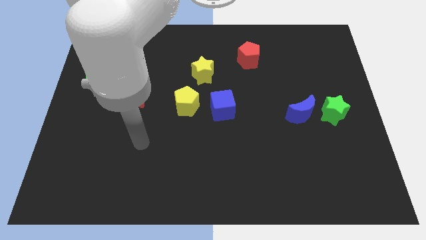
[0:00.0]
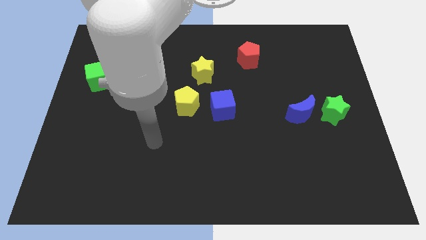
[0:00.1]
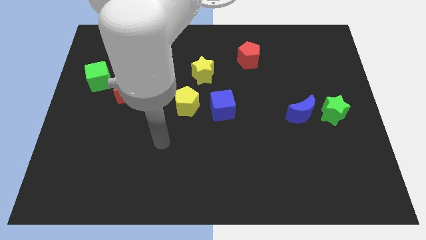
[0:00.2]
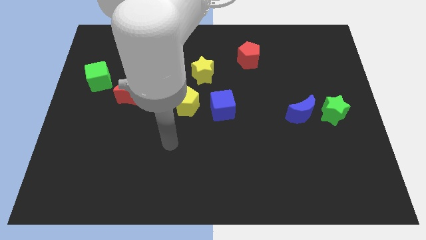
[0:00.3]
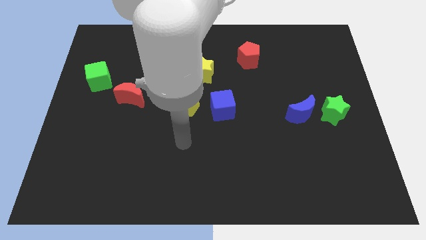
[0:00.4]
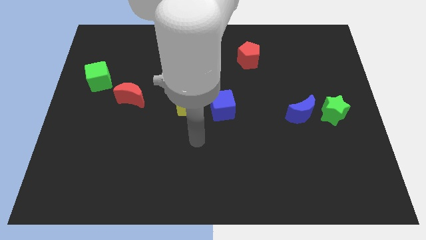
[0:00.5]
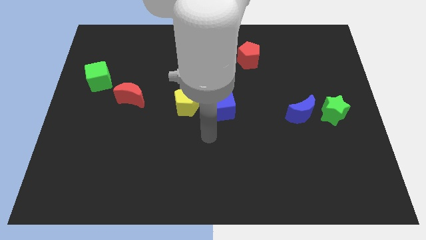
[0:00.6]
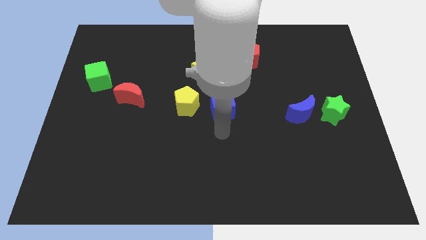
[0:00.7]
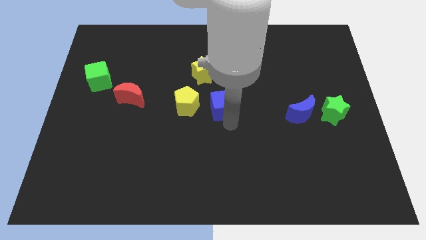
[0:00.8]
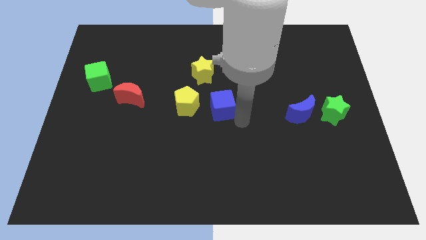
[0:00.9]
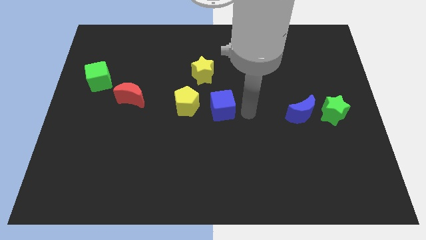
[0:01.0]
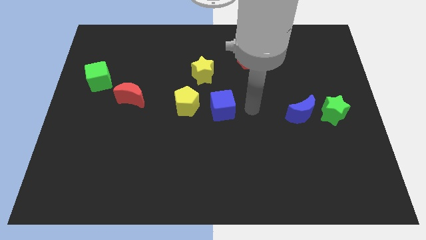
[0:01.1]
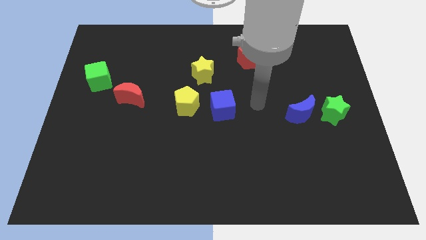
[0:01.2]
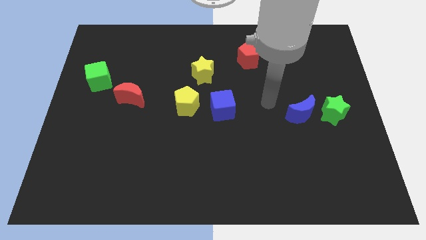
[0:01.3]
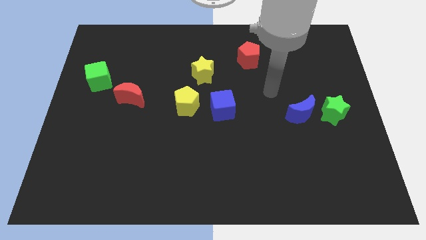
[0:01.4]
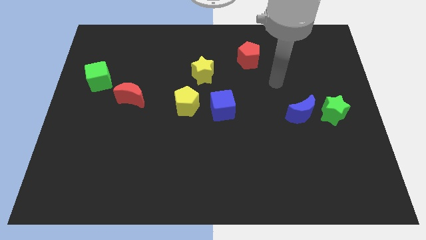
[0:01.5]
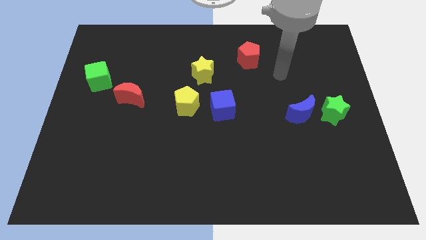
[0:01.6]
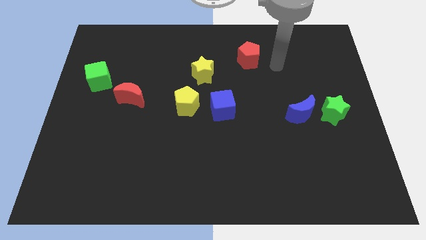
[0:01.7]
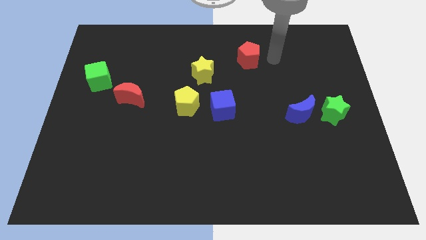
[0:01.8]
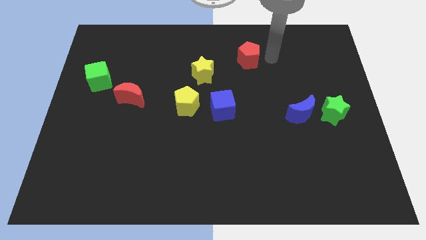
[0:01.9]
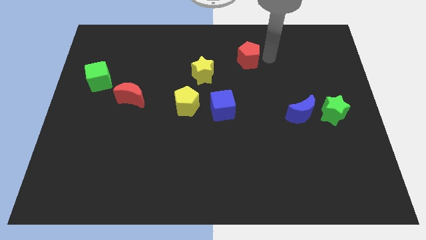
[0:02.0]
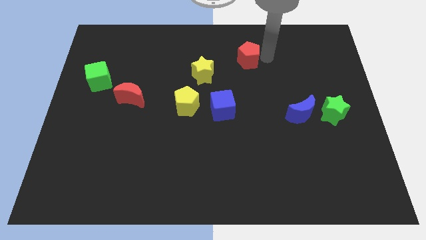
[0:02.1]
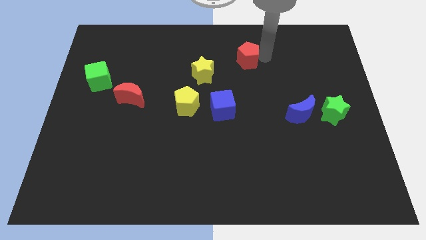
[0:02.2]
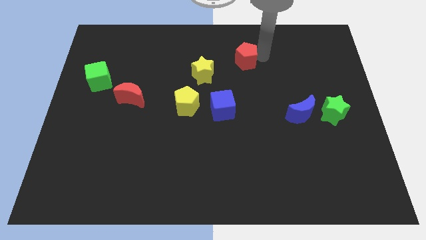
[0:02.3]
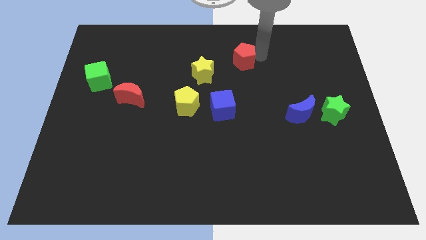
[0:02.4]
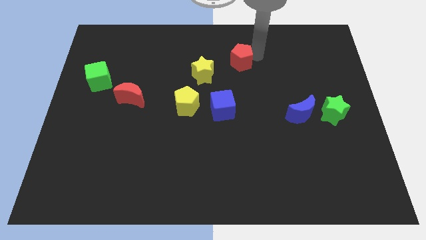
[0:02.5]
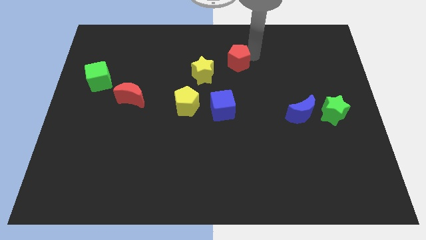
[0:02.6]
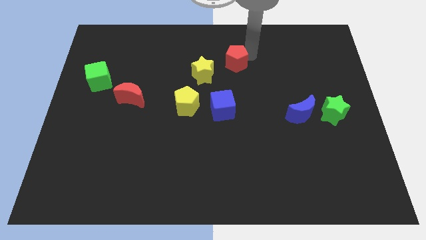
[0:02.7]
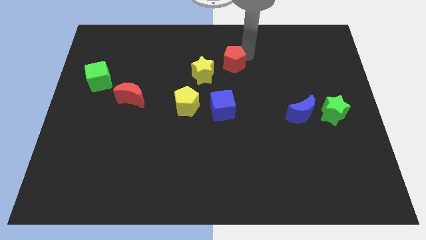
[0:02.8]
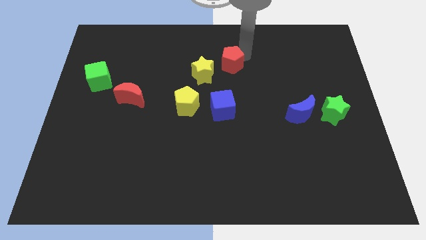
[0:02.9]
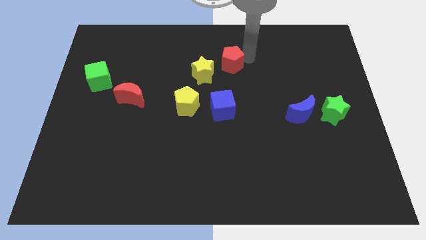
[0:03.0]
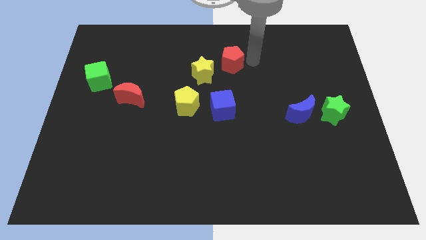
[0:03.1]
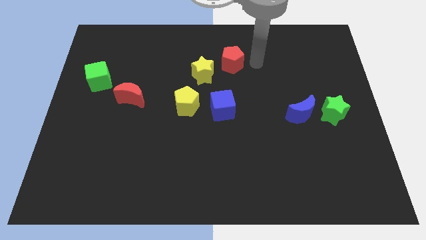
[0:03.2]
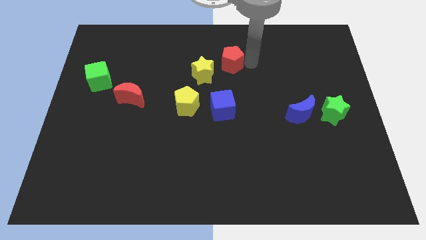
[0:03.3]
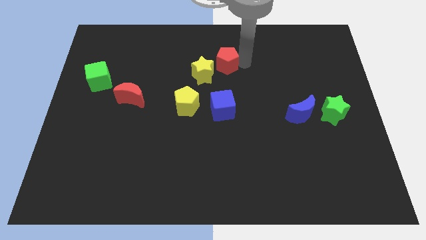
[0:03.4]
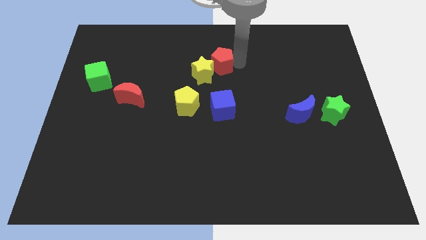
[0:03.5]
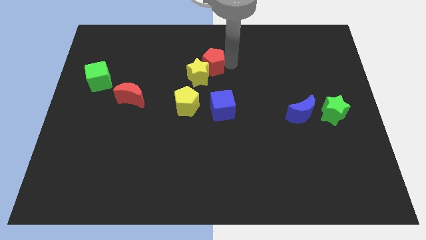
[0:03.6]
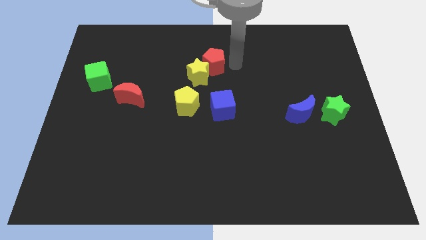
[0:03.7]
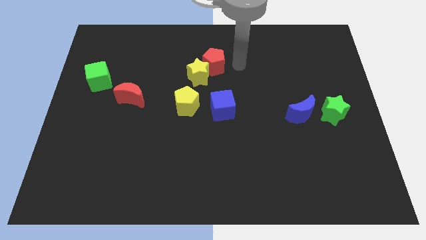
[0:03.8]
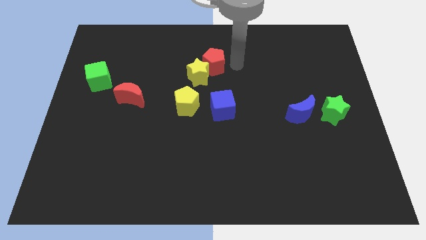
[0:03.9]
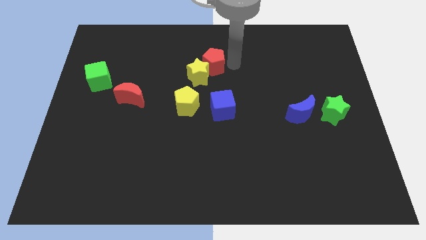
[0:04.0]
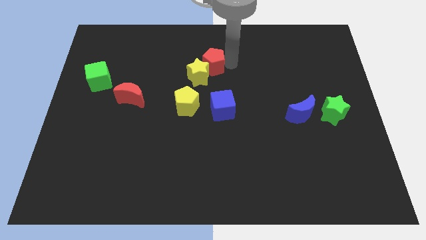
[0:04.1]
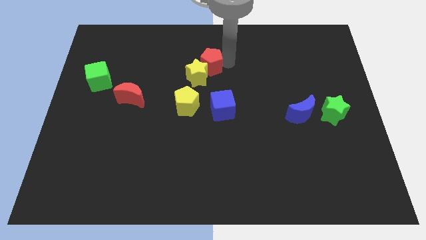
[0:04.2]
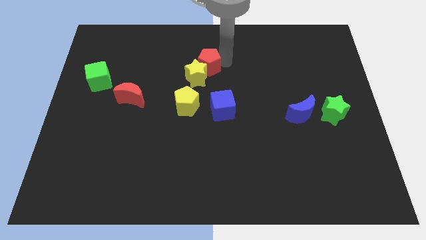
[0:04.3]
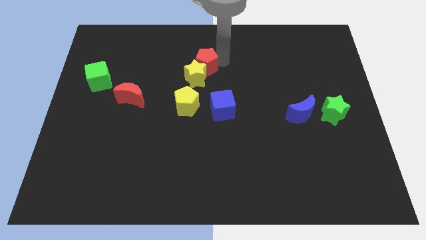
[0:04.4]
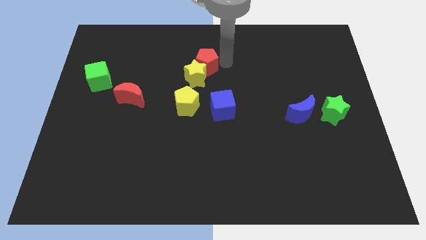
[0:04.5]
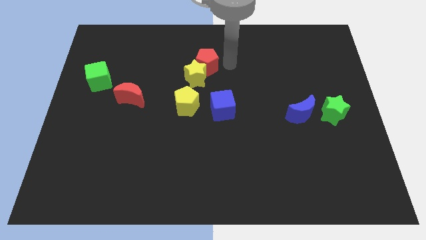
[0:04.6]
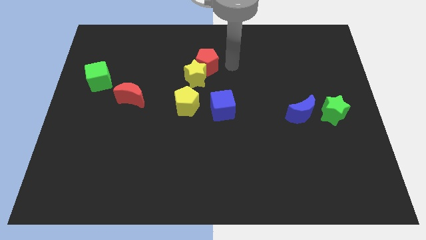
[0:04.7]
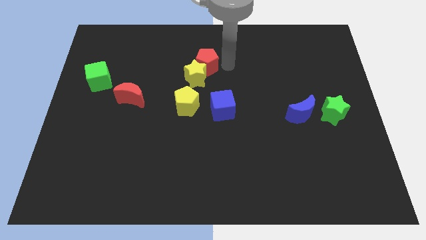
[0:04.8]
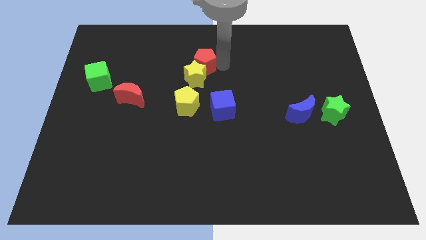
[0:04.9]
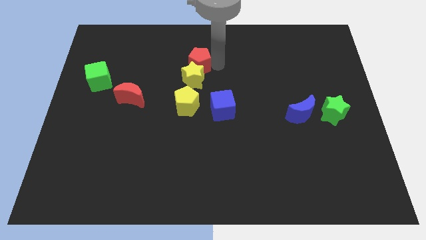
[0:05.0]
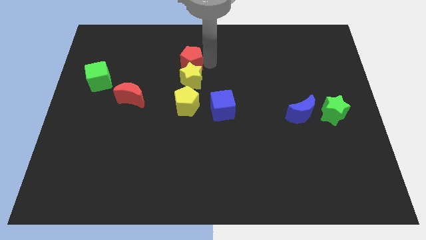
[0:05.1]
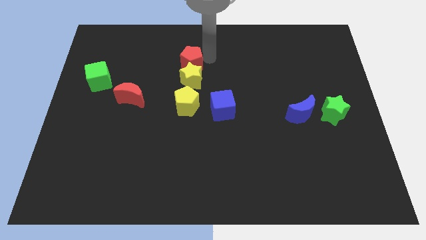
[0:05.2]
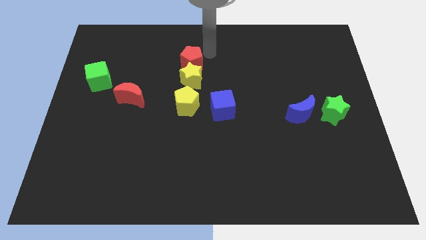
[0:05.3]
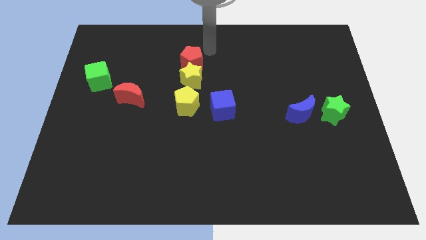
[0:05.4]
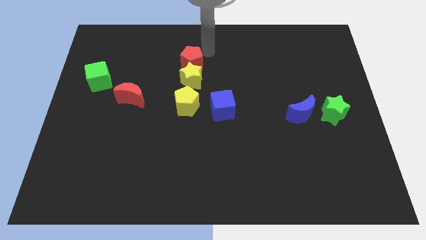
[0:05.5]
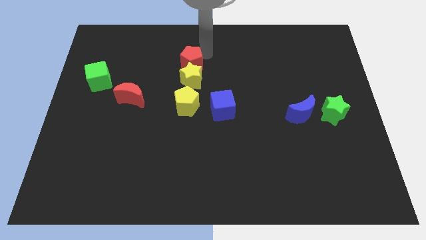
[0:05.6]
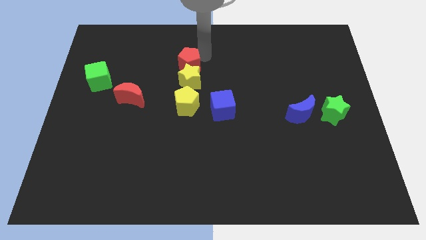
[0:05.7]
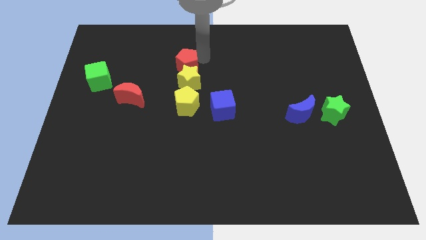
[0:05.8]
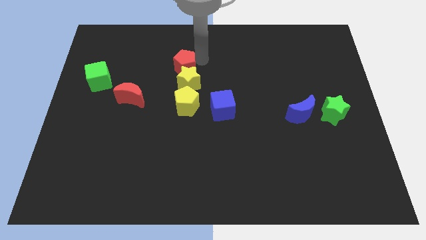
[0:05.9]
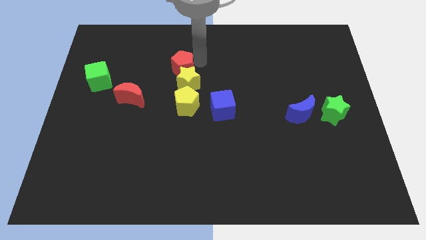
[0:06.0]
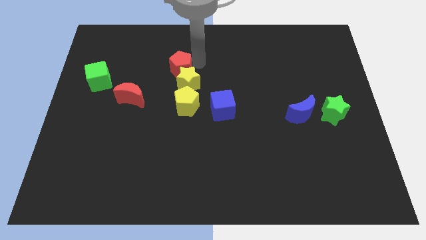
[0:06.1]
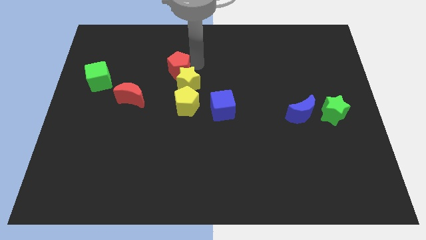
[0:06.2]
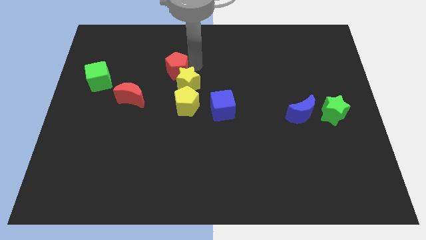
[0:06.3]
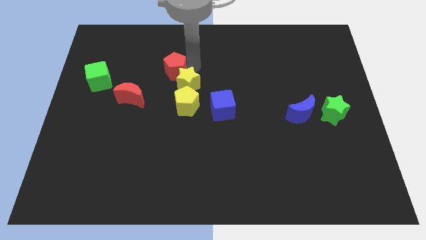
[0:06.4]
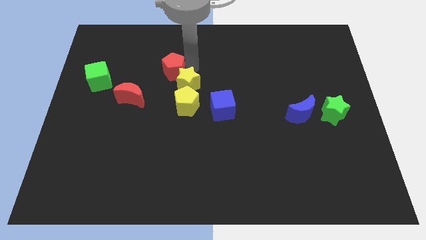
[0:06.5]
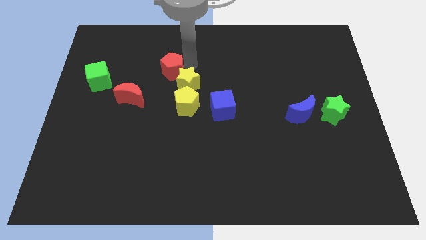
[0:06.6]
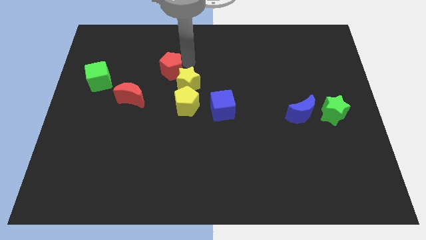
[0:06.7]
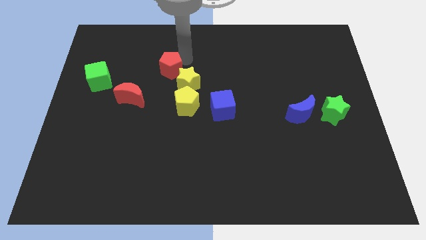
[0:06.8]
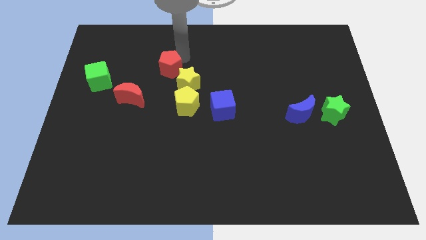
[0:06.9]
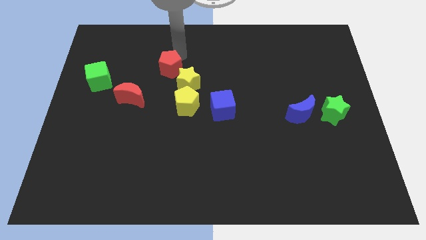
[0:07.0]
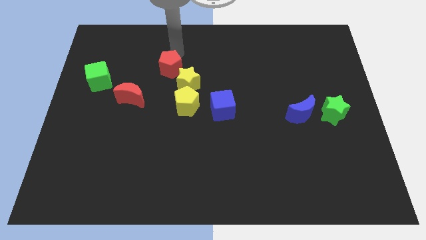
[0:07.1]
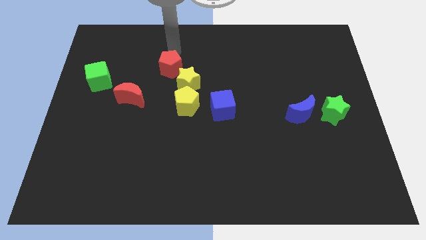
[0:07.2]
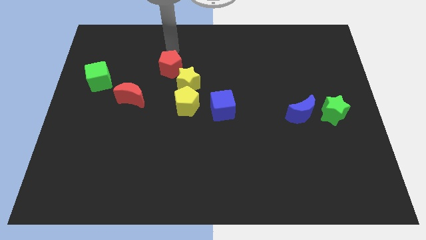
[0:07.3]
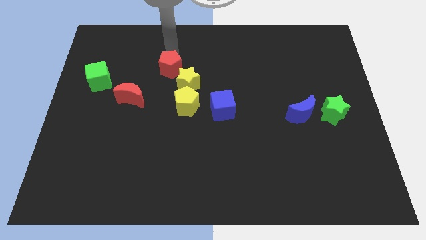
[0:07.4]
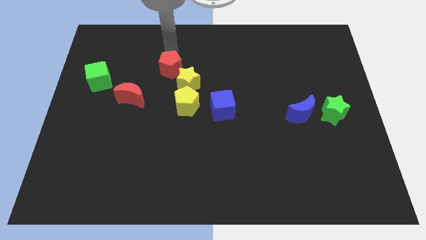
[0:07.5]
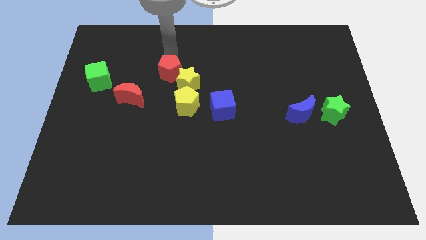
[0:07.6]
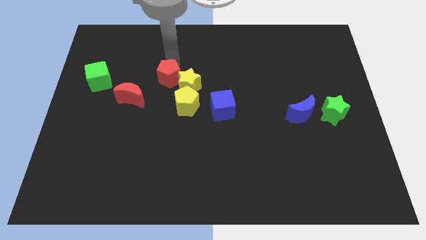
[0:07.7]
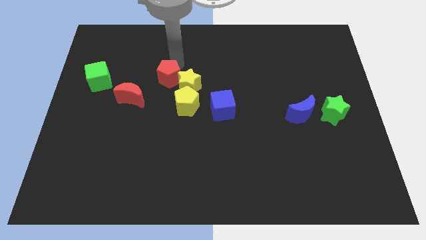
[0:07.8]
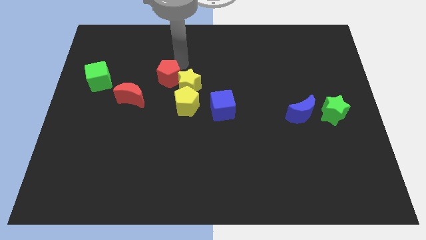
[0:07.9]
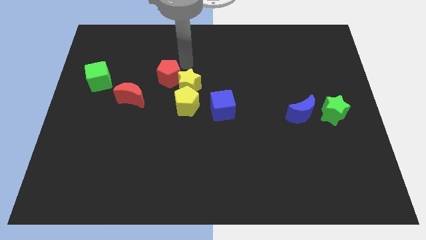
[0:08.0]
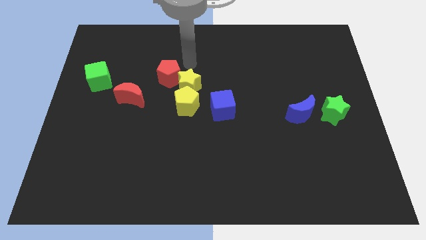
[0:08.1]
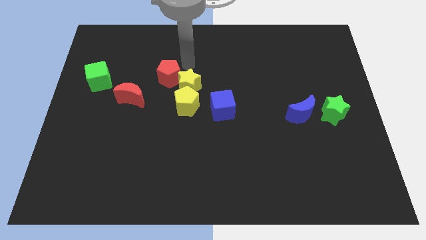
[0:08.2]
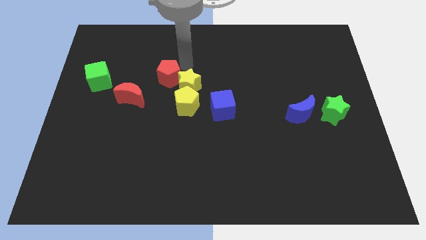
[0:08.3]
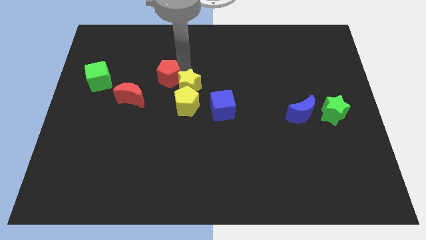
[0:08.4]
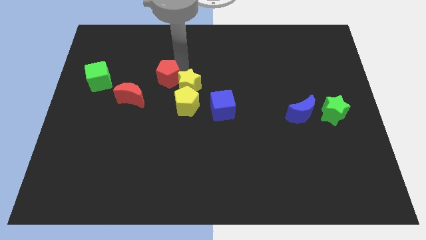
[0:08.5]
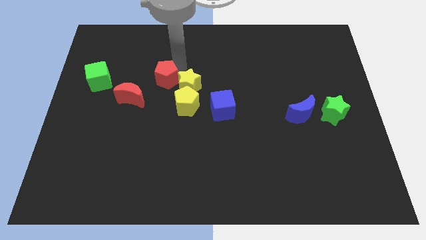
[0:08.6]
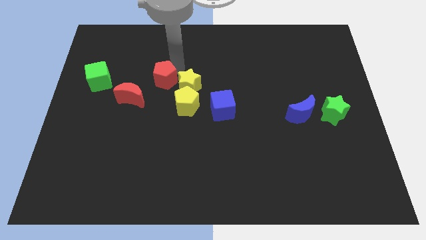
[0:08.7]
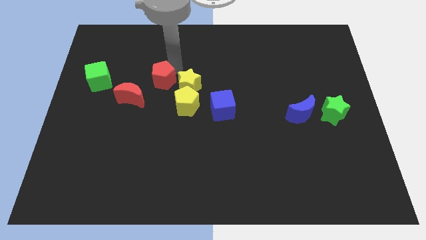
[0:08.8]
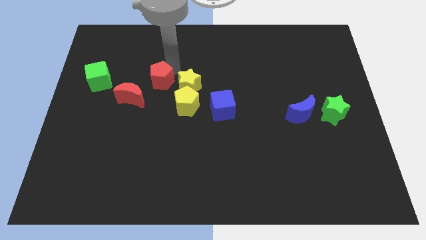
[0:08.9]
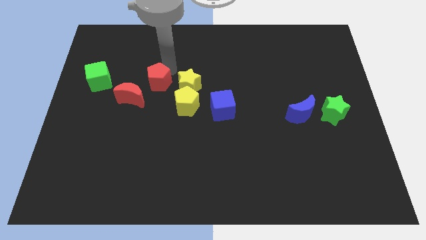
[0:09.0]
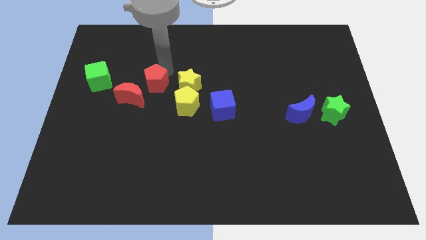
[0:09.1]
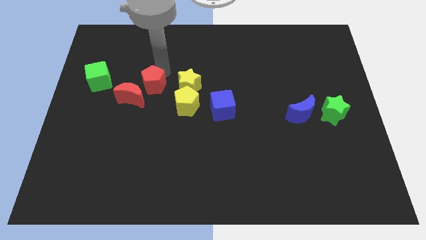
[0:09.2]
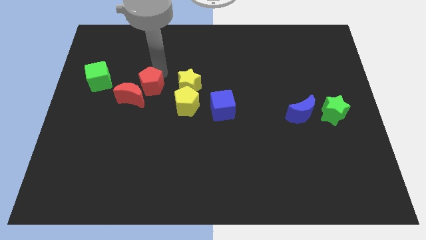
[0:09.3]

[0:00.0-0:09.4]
put the red pentagon close to the red moon
